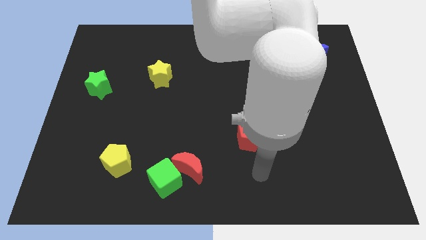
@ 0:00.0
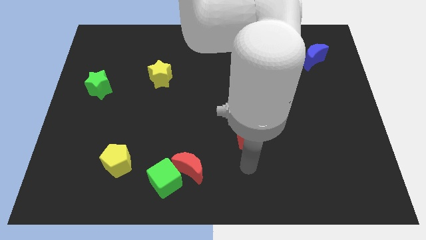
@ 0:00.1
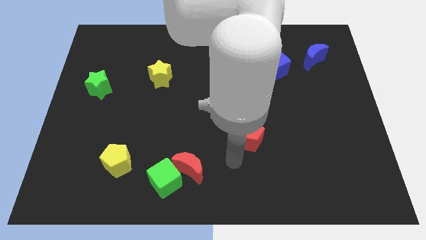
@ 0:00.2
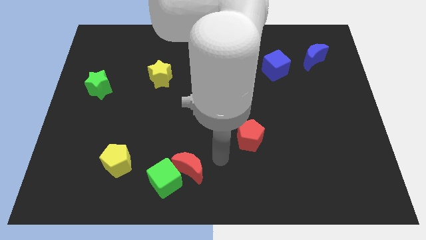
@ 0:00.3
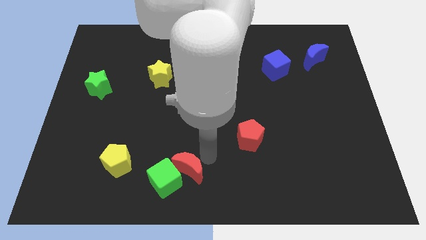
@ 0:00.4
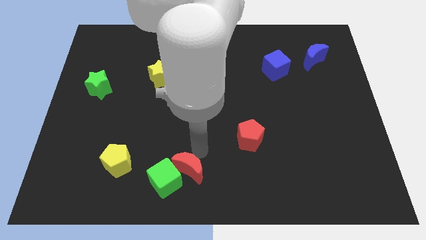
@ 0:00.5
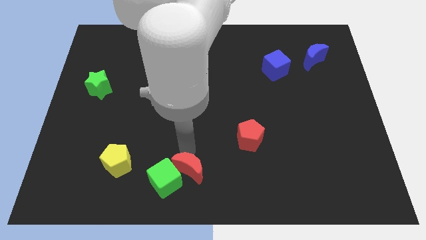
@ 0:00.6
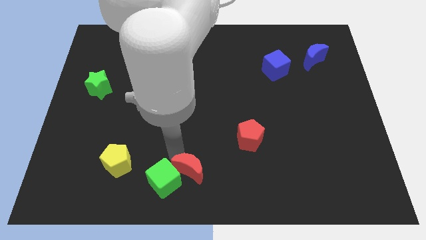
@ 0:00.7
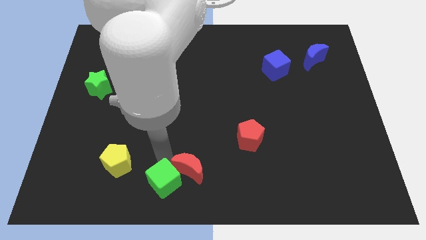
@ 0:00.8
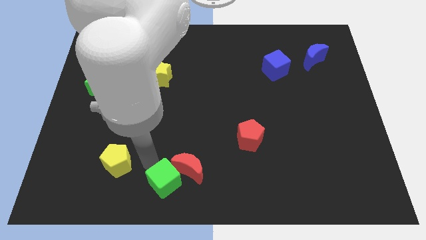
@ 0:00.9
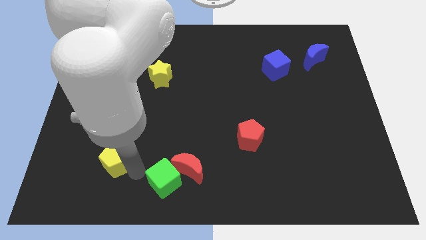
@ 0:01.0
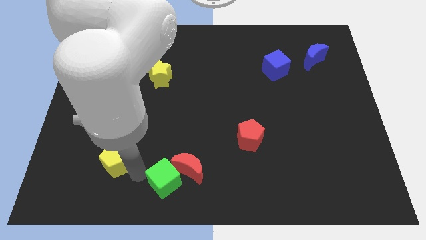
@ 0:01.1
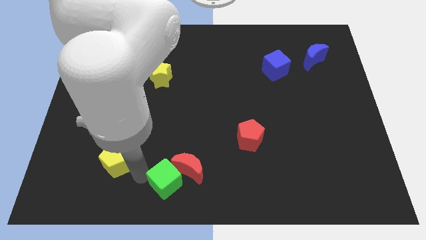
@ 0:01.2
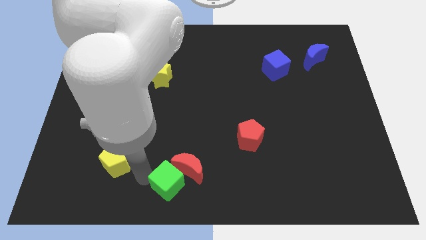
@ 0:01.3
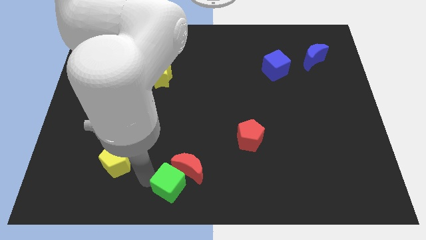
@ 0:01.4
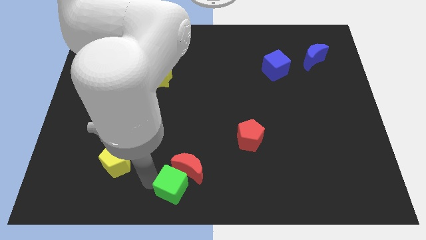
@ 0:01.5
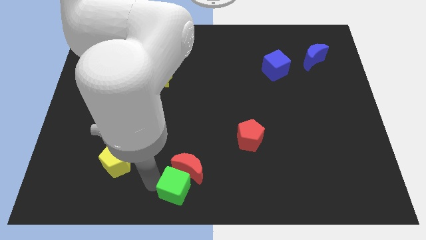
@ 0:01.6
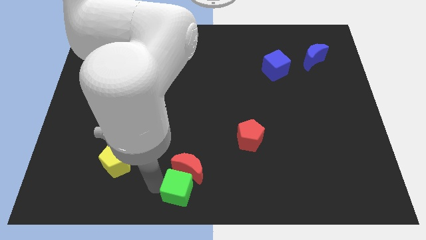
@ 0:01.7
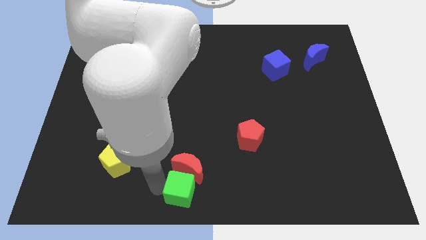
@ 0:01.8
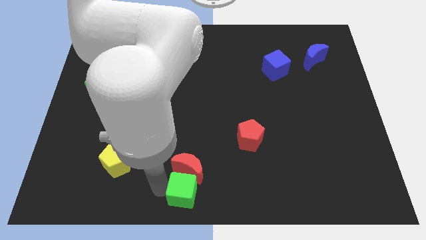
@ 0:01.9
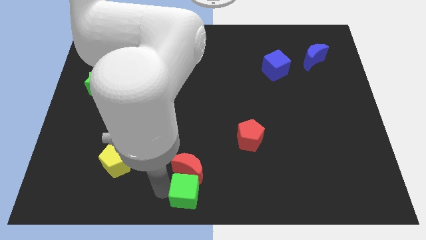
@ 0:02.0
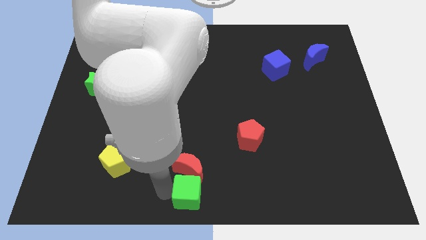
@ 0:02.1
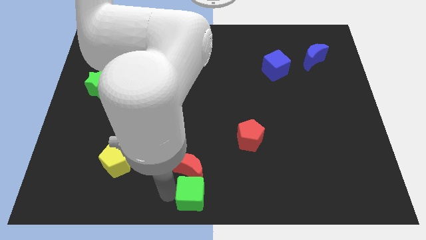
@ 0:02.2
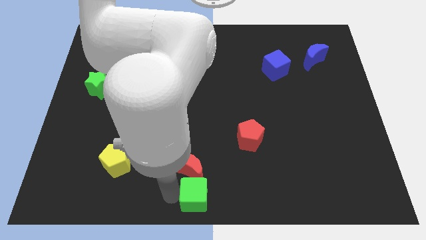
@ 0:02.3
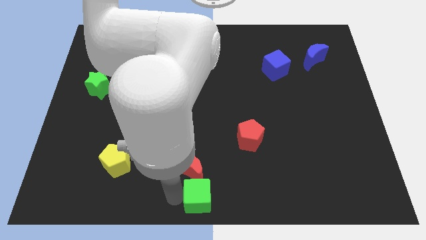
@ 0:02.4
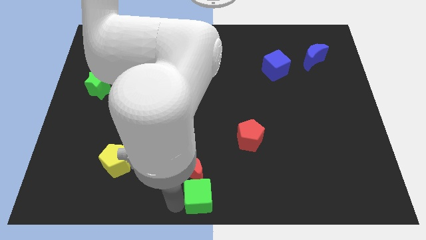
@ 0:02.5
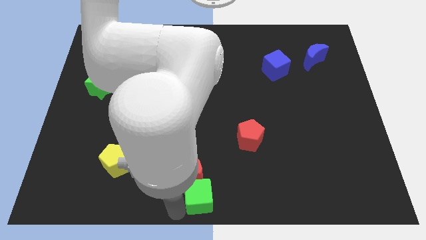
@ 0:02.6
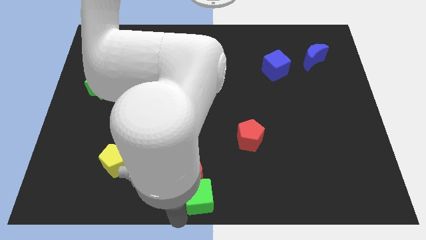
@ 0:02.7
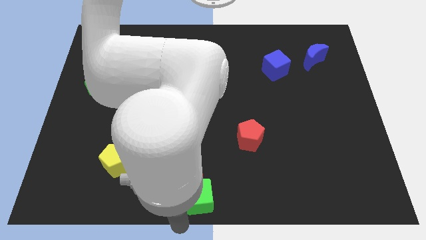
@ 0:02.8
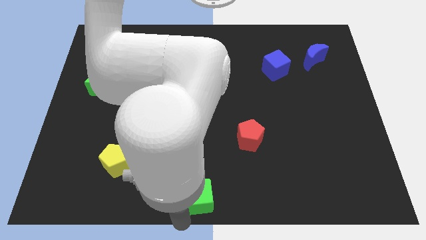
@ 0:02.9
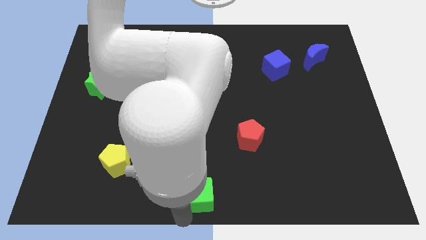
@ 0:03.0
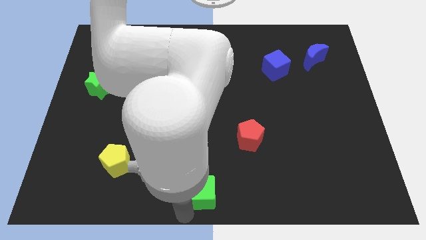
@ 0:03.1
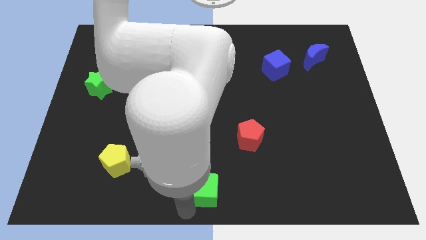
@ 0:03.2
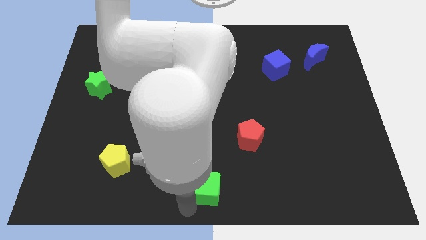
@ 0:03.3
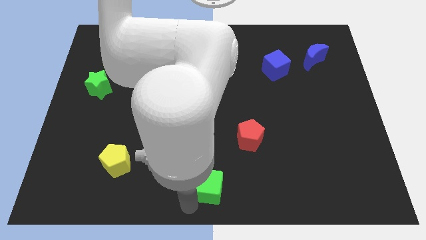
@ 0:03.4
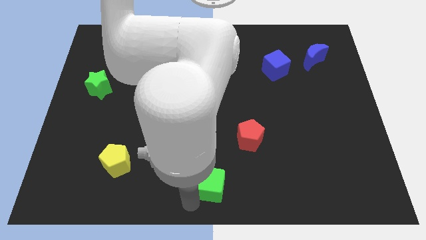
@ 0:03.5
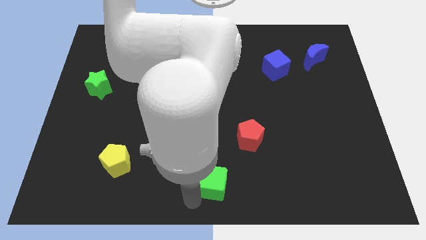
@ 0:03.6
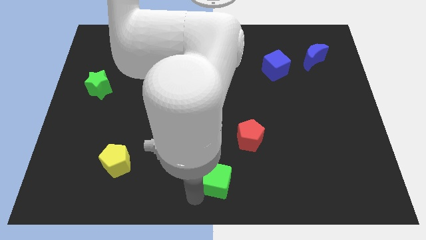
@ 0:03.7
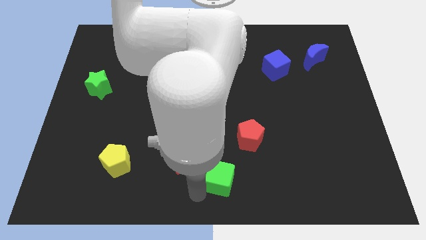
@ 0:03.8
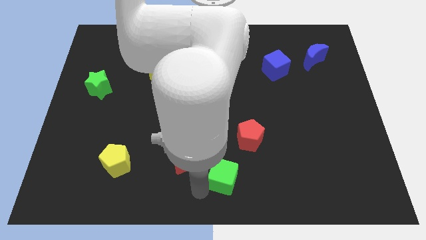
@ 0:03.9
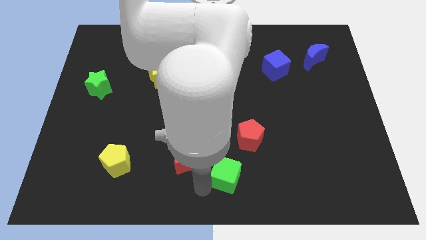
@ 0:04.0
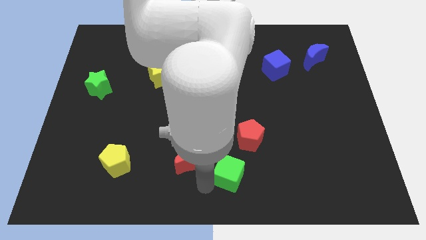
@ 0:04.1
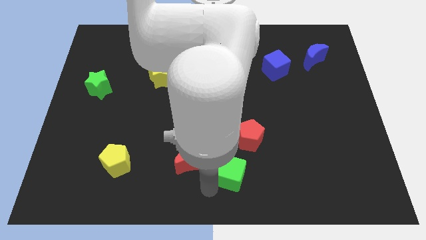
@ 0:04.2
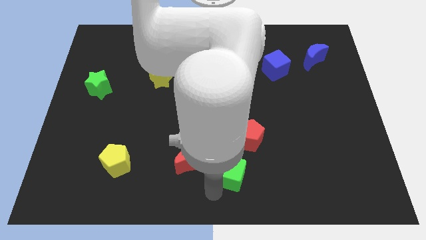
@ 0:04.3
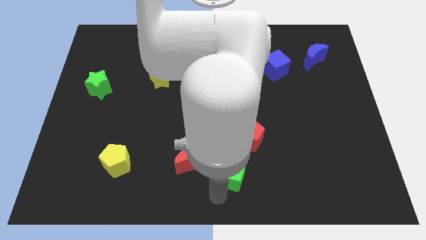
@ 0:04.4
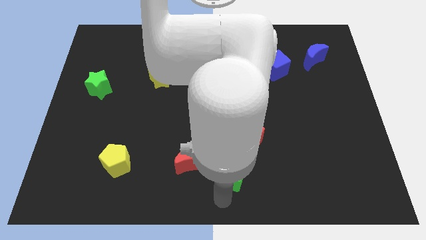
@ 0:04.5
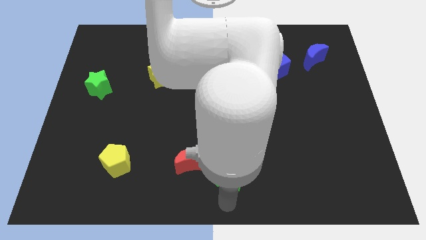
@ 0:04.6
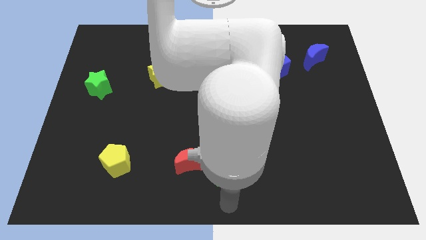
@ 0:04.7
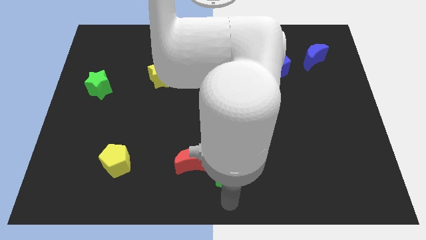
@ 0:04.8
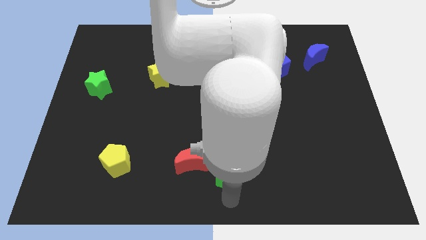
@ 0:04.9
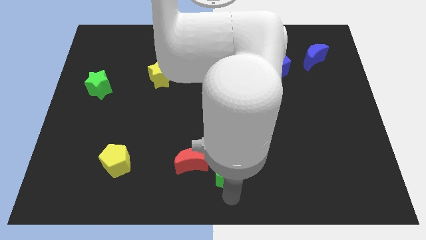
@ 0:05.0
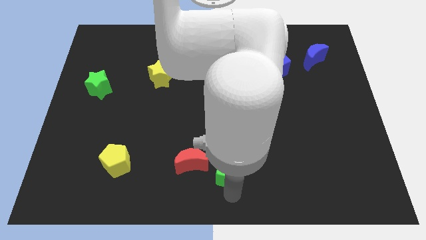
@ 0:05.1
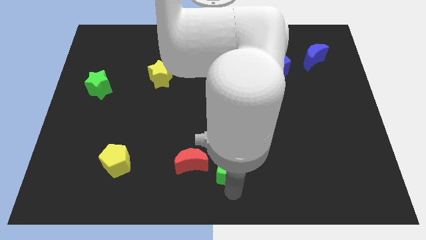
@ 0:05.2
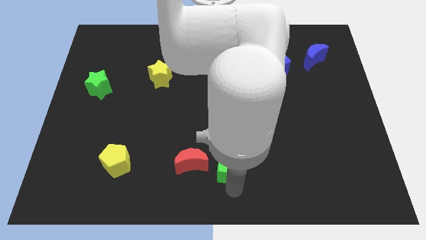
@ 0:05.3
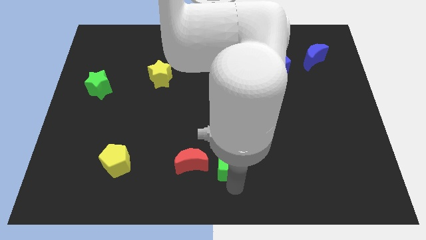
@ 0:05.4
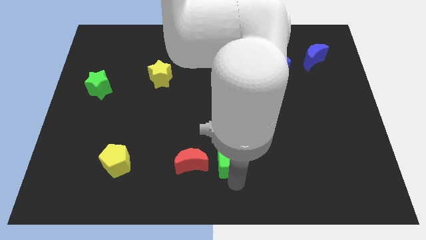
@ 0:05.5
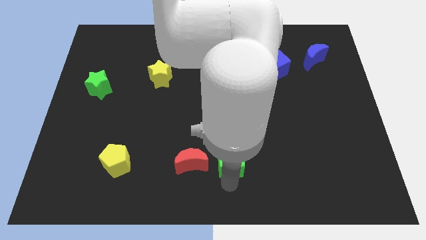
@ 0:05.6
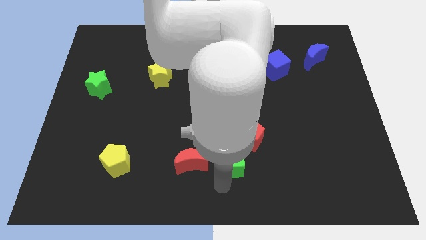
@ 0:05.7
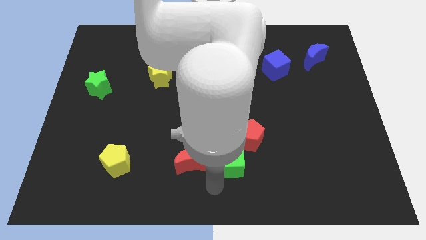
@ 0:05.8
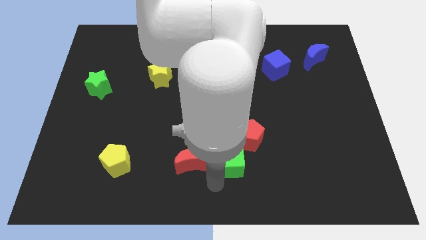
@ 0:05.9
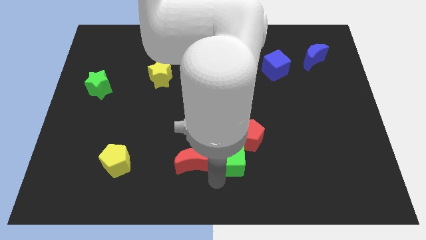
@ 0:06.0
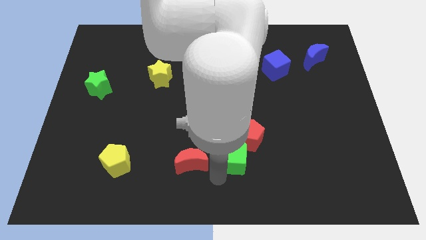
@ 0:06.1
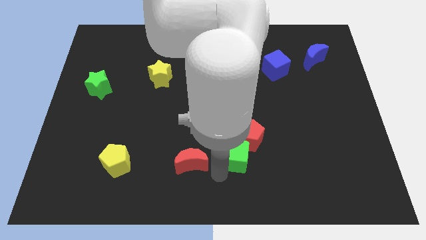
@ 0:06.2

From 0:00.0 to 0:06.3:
slide the green cube close to the red pentagon

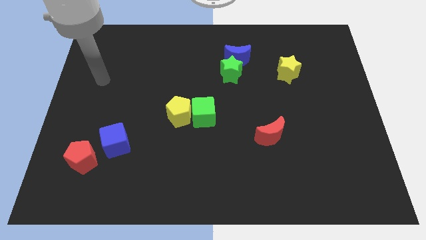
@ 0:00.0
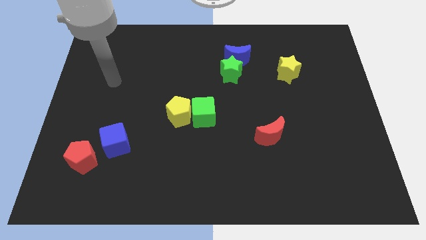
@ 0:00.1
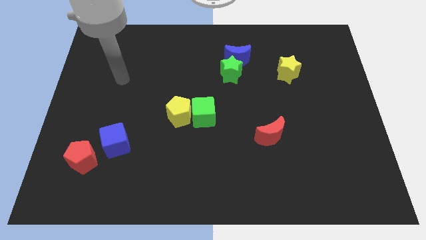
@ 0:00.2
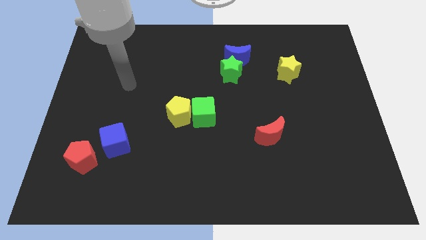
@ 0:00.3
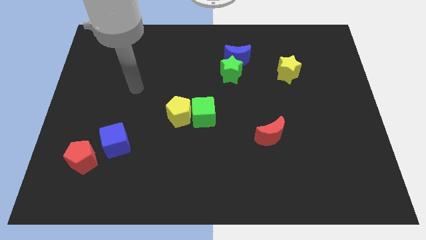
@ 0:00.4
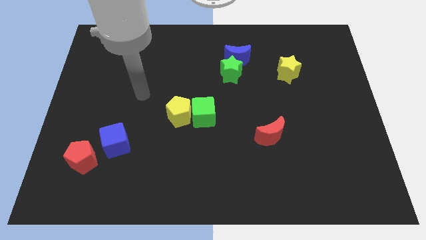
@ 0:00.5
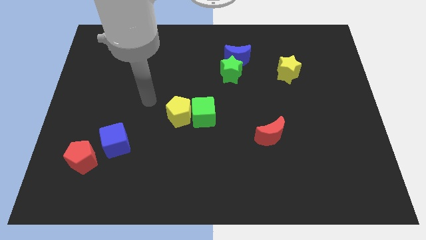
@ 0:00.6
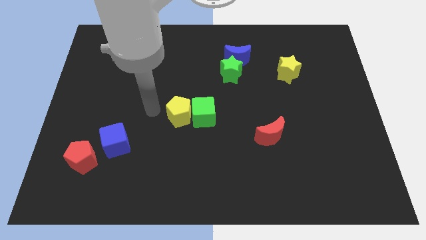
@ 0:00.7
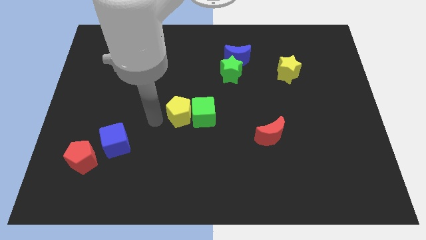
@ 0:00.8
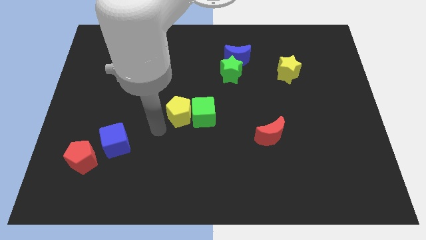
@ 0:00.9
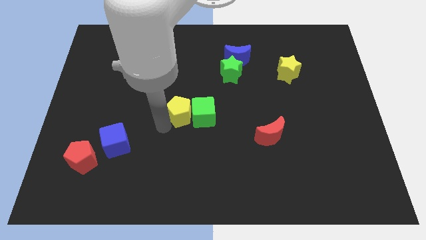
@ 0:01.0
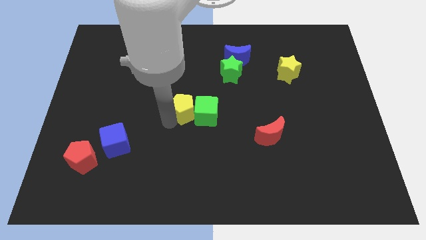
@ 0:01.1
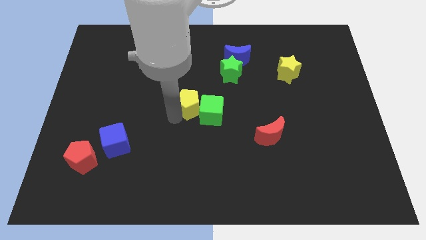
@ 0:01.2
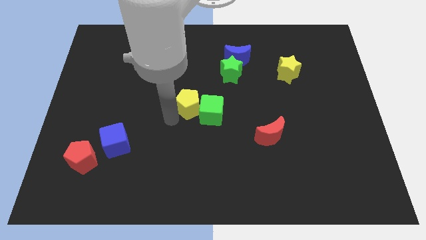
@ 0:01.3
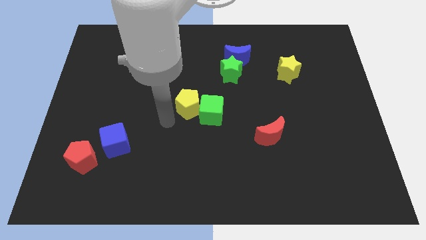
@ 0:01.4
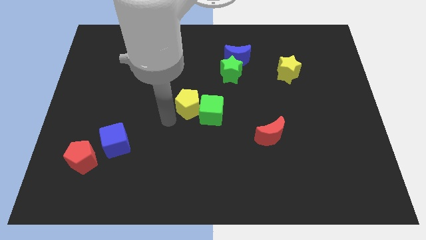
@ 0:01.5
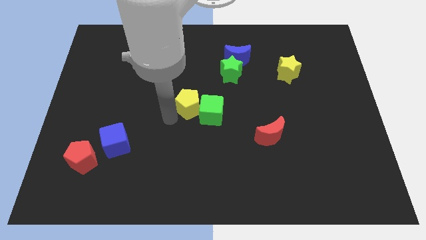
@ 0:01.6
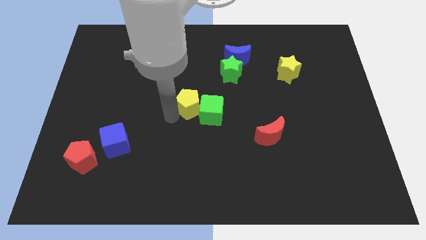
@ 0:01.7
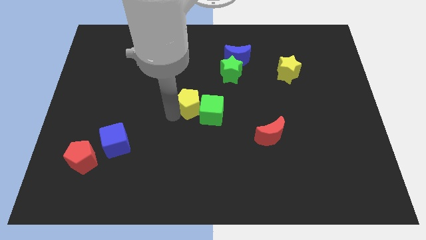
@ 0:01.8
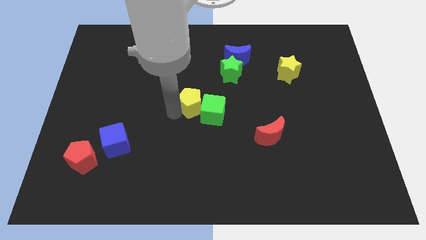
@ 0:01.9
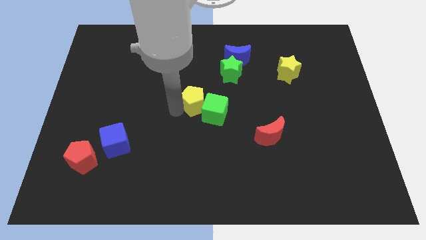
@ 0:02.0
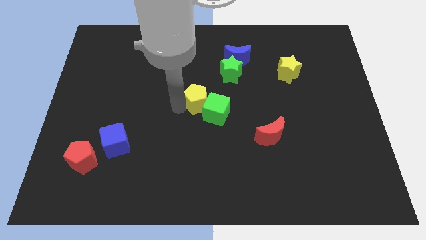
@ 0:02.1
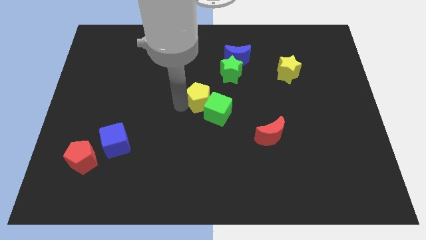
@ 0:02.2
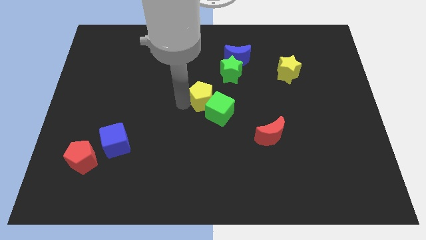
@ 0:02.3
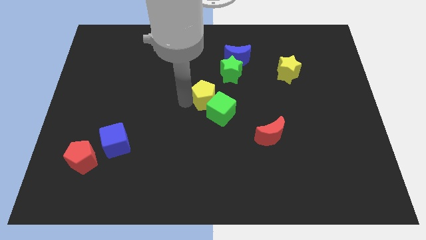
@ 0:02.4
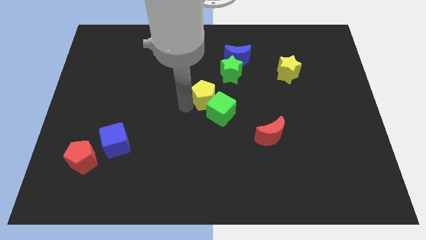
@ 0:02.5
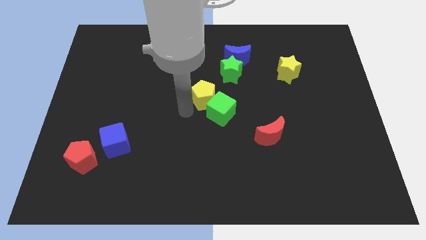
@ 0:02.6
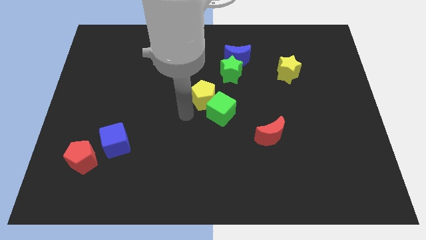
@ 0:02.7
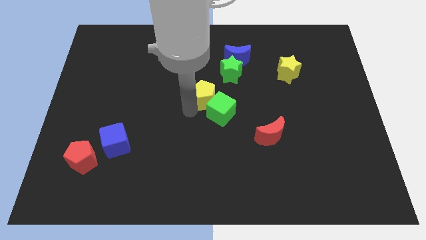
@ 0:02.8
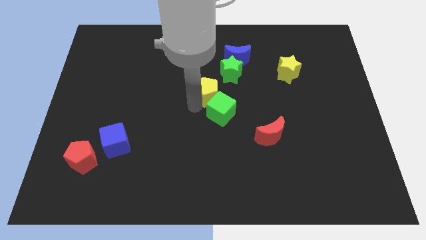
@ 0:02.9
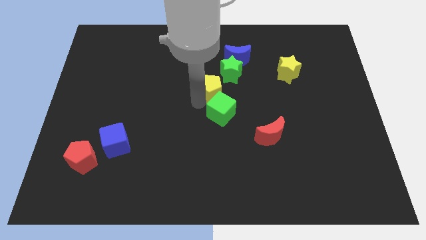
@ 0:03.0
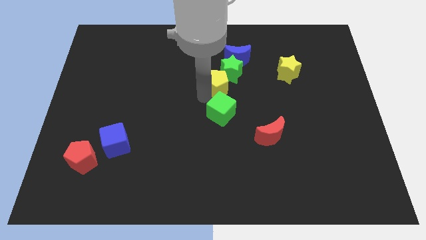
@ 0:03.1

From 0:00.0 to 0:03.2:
move the yellow pentagon to the green star
